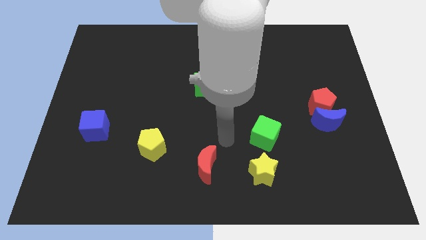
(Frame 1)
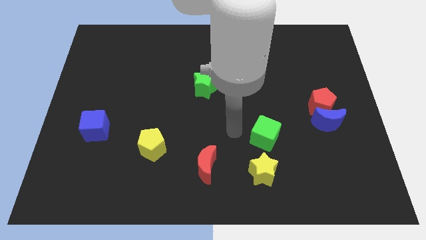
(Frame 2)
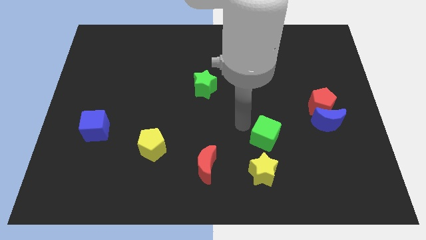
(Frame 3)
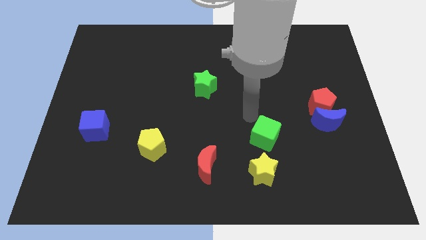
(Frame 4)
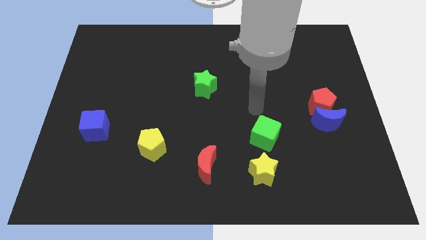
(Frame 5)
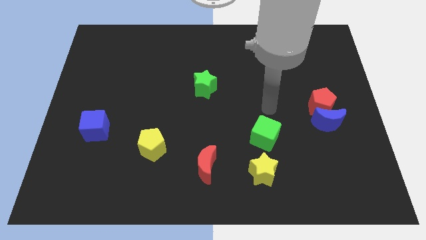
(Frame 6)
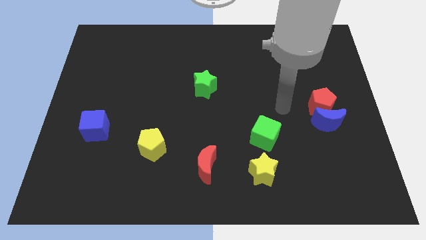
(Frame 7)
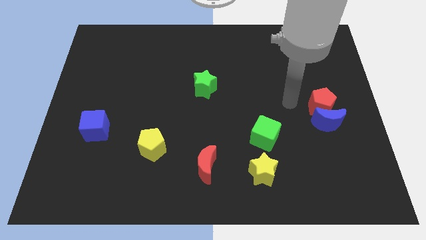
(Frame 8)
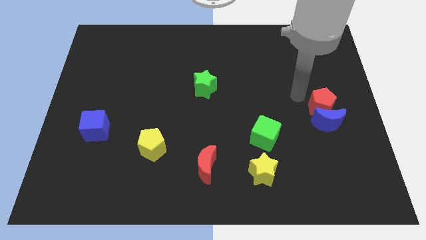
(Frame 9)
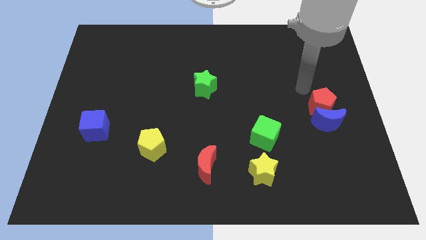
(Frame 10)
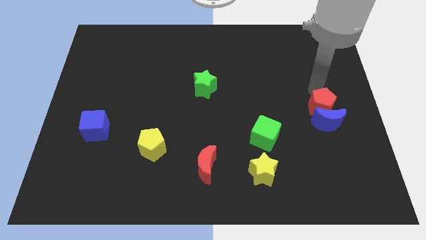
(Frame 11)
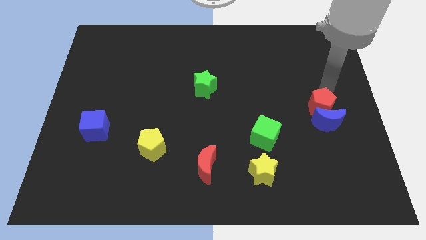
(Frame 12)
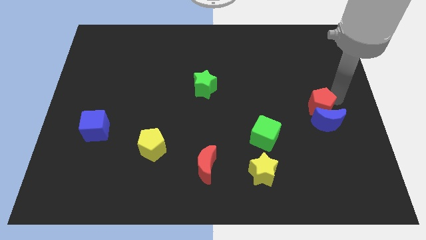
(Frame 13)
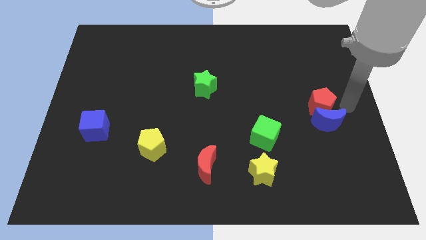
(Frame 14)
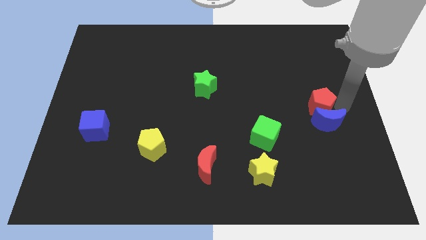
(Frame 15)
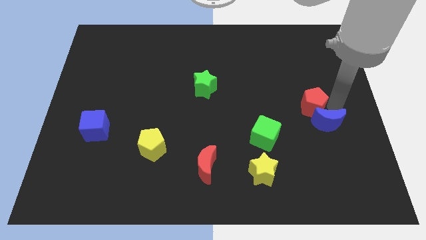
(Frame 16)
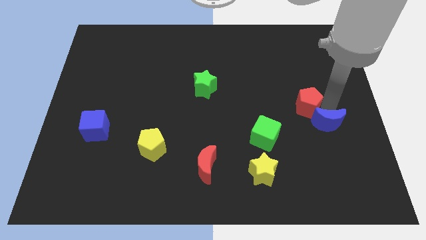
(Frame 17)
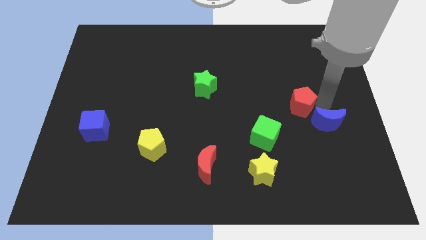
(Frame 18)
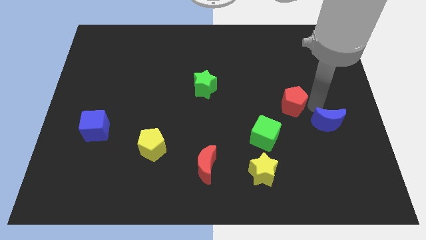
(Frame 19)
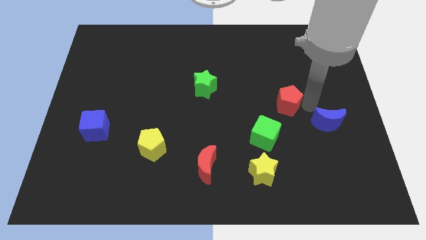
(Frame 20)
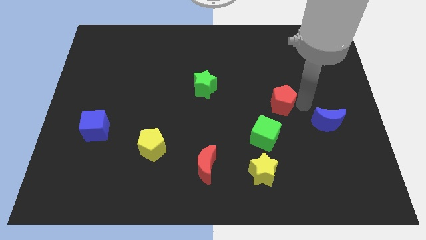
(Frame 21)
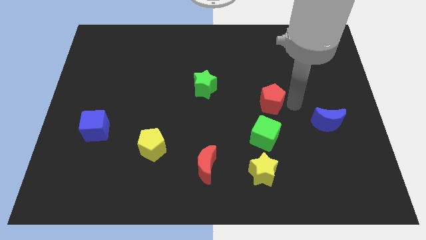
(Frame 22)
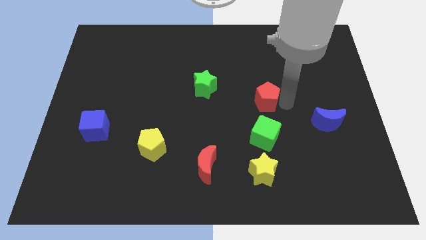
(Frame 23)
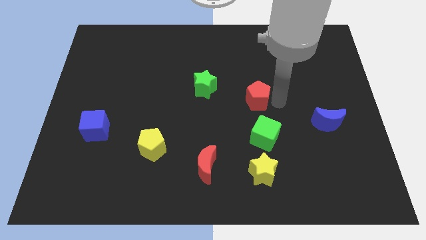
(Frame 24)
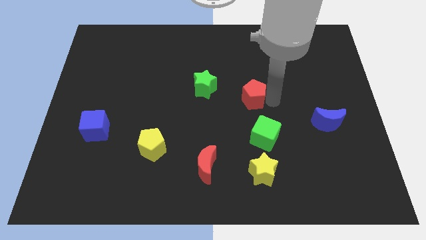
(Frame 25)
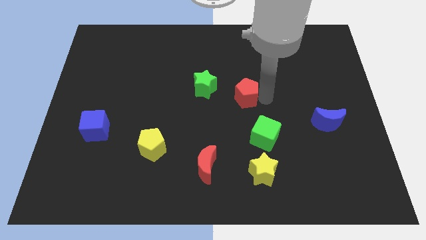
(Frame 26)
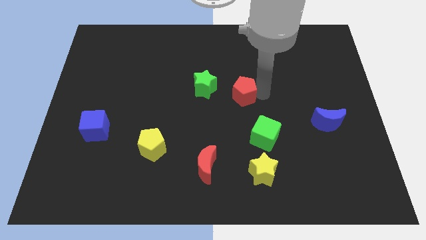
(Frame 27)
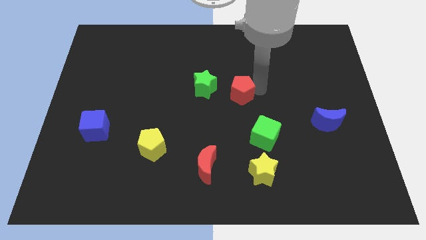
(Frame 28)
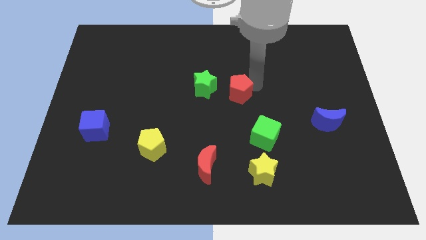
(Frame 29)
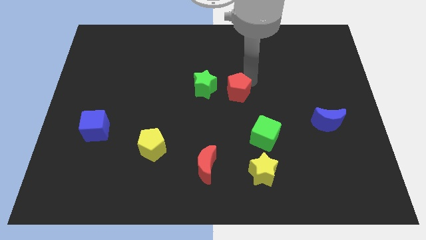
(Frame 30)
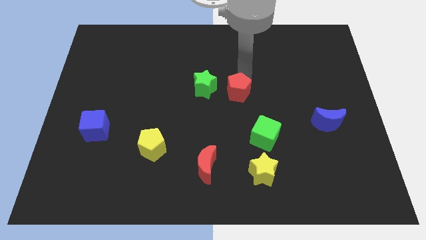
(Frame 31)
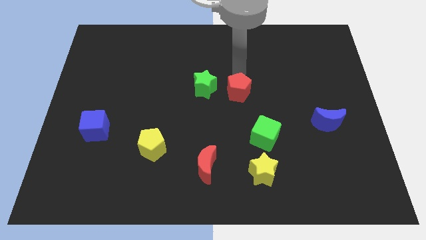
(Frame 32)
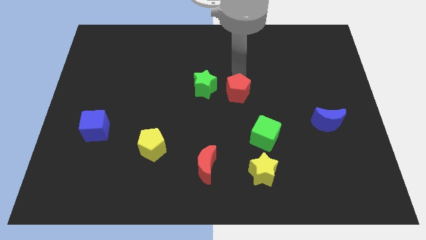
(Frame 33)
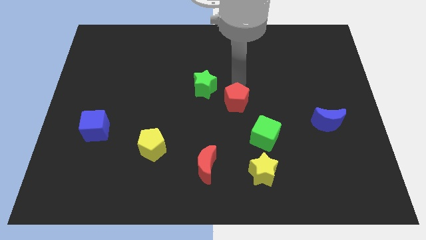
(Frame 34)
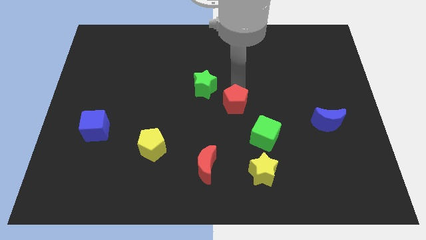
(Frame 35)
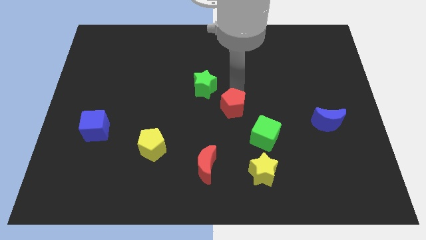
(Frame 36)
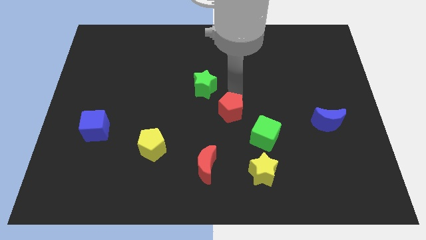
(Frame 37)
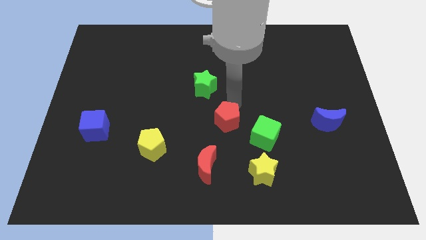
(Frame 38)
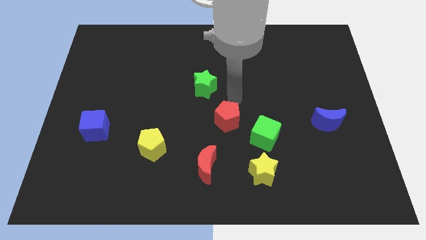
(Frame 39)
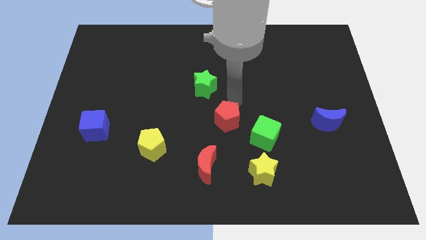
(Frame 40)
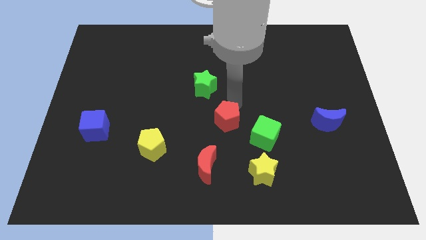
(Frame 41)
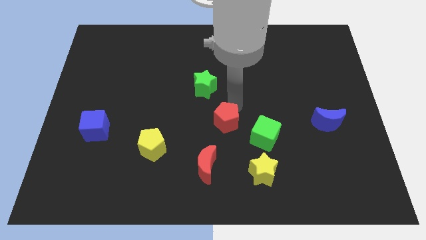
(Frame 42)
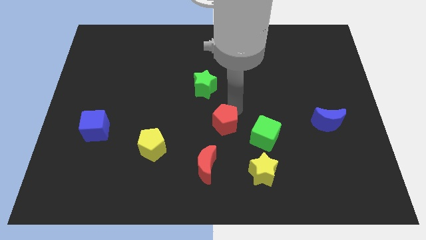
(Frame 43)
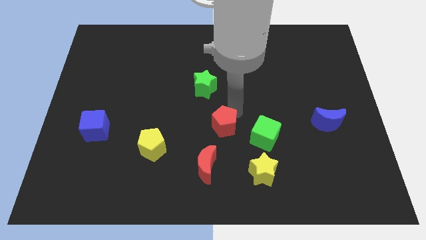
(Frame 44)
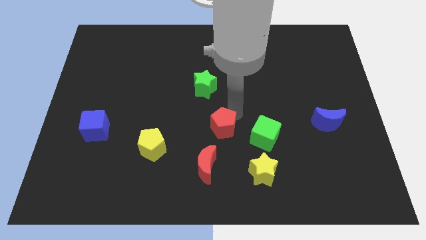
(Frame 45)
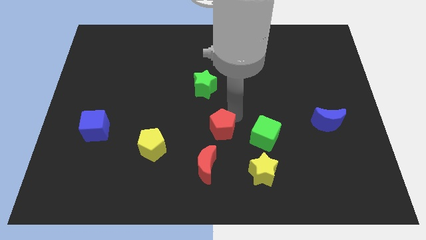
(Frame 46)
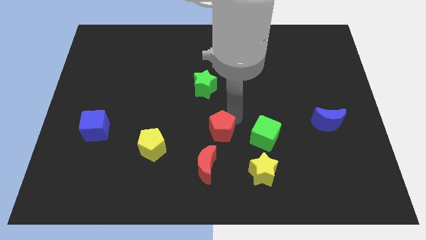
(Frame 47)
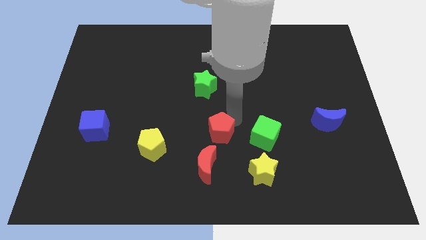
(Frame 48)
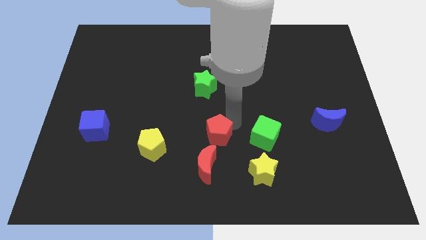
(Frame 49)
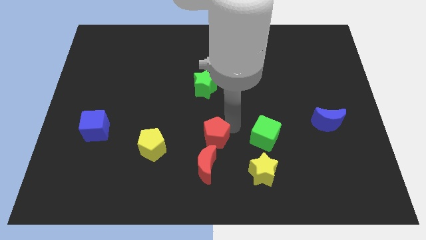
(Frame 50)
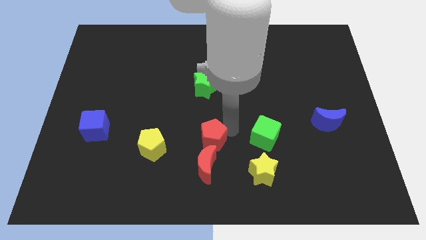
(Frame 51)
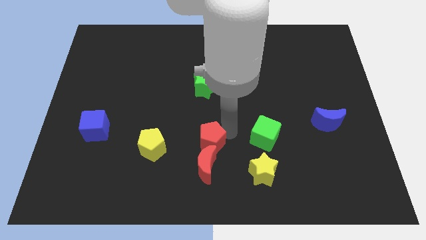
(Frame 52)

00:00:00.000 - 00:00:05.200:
push the red pentagon close to the red moon

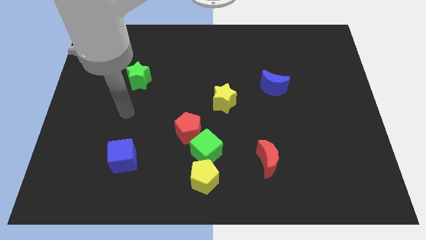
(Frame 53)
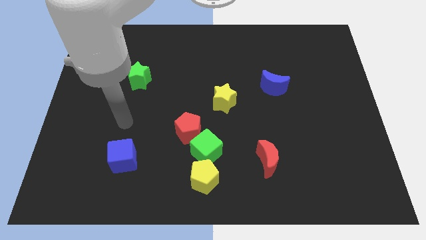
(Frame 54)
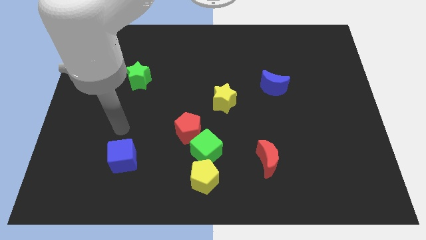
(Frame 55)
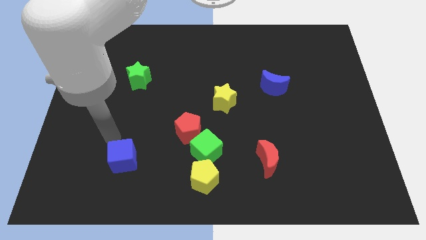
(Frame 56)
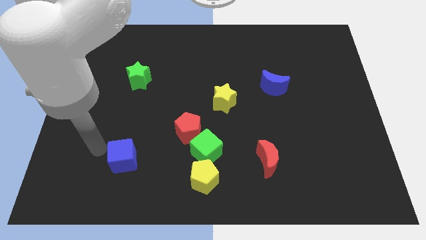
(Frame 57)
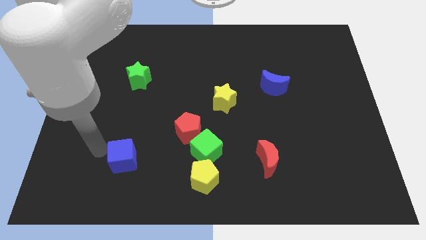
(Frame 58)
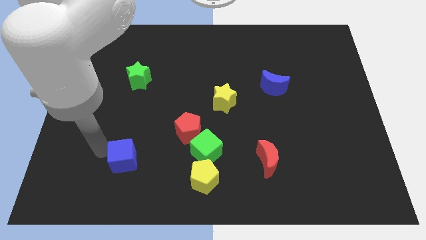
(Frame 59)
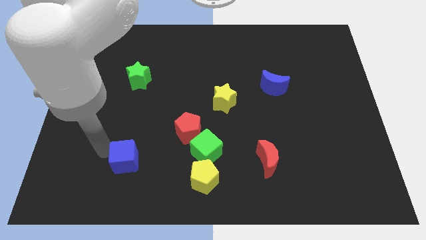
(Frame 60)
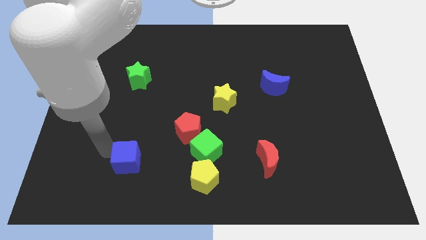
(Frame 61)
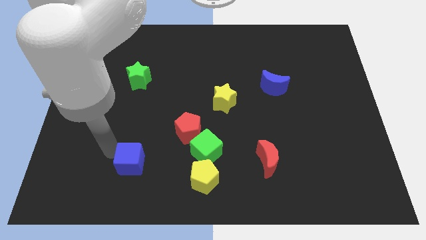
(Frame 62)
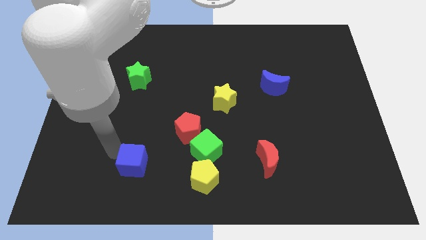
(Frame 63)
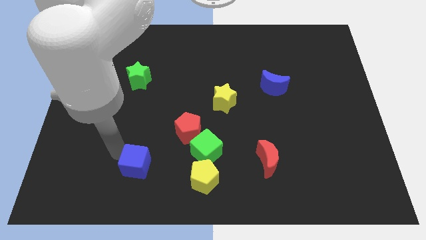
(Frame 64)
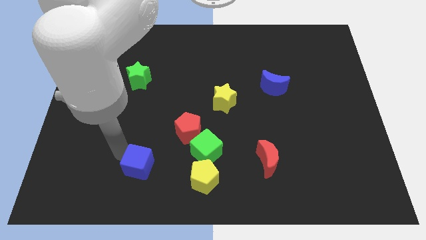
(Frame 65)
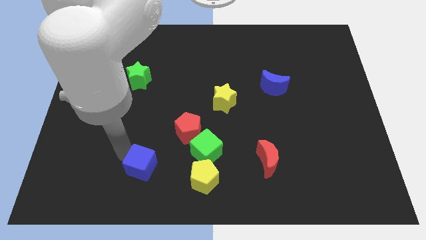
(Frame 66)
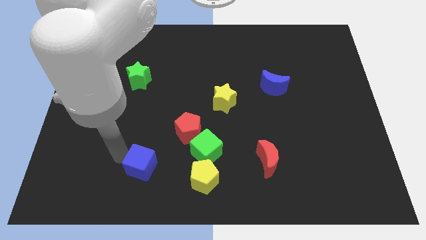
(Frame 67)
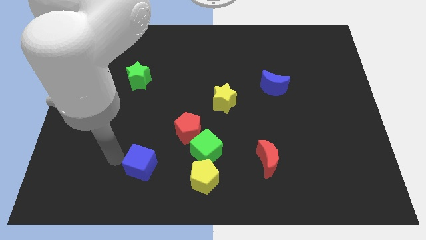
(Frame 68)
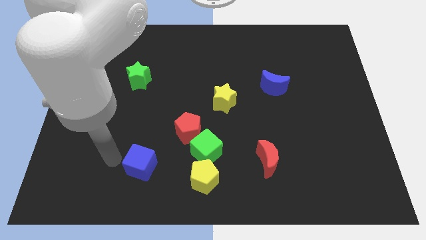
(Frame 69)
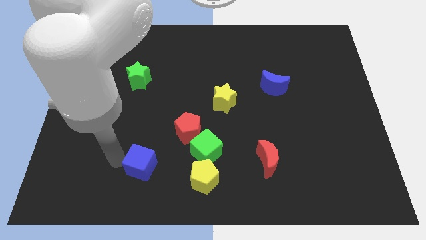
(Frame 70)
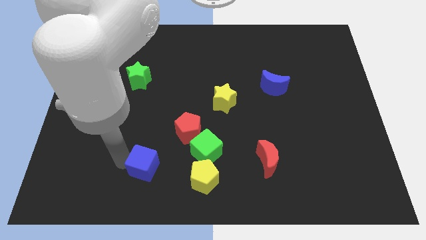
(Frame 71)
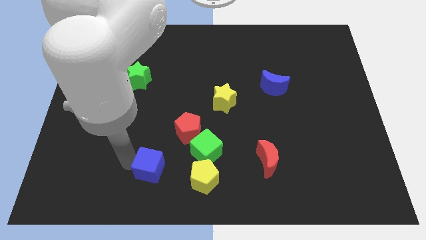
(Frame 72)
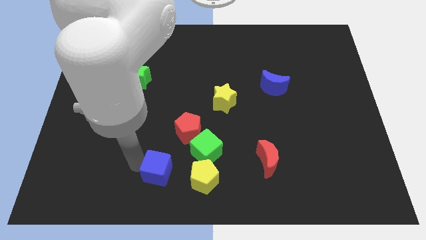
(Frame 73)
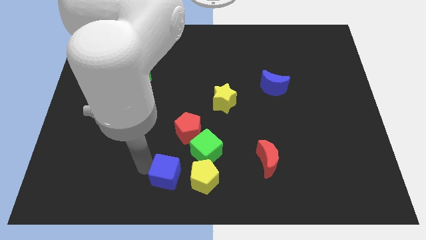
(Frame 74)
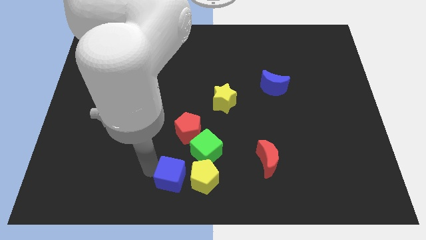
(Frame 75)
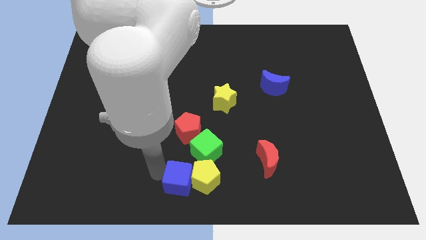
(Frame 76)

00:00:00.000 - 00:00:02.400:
move the blue cube towards the yellow pentagon

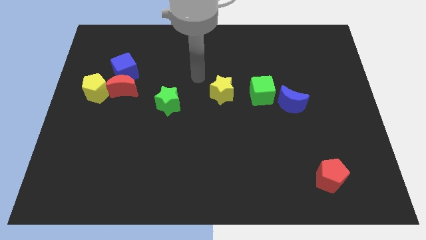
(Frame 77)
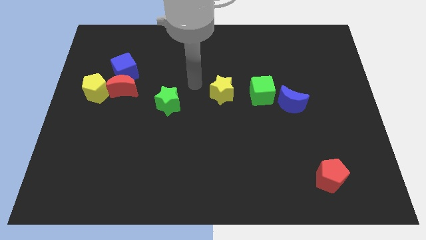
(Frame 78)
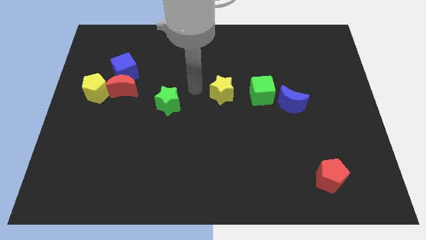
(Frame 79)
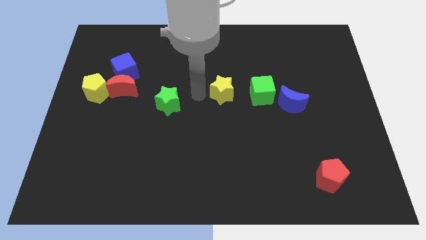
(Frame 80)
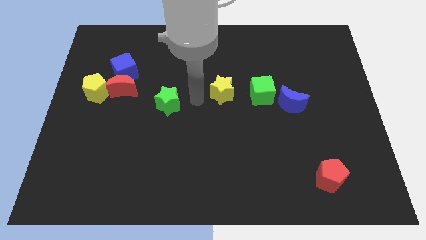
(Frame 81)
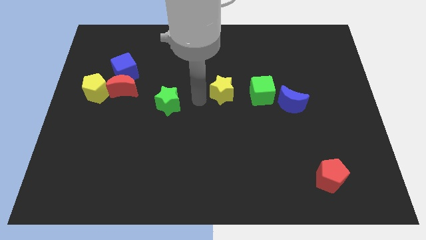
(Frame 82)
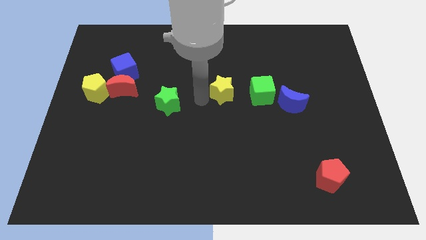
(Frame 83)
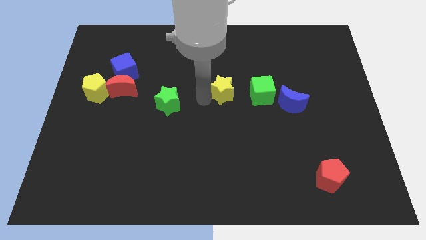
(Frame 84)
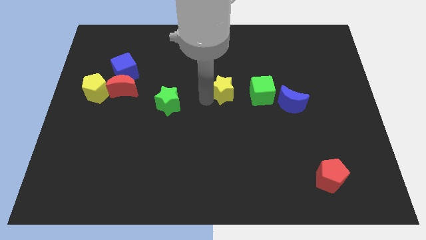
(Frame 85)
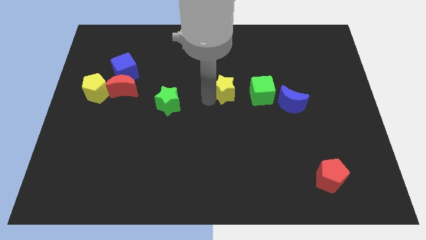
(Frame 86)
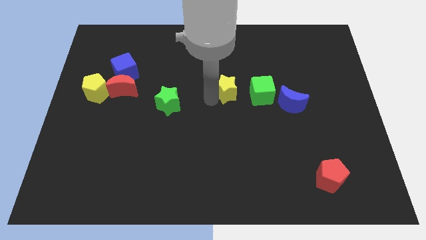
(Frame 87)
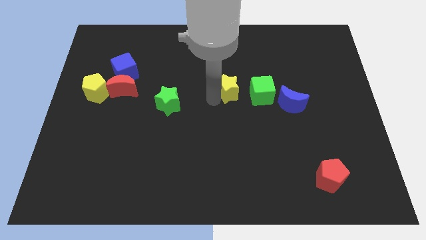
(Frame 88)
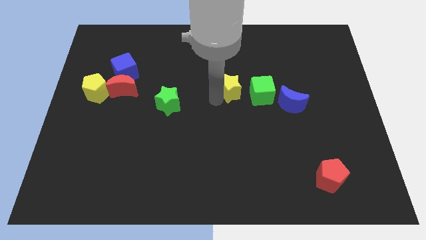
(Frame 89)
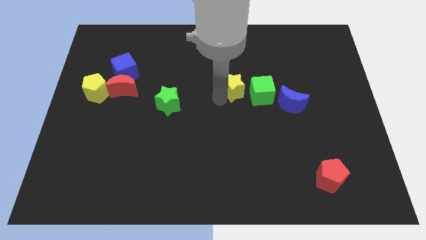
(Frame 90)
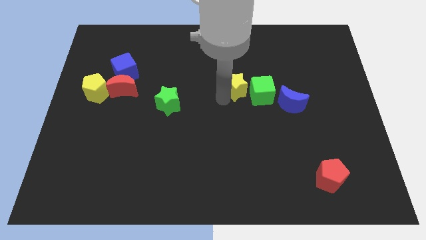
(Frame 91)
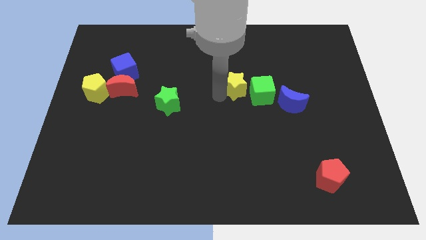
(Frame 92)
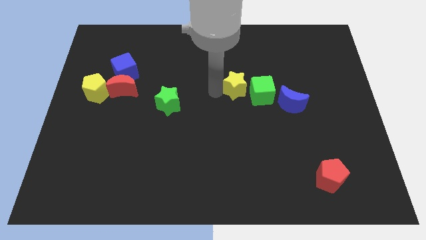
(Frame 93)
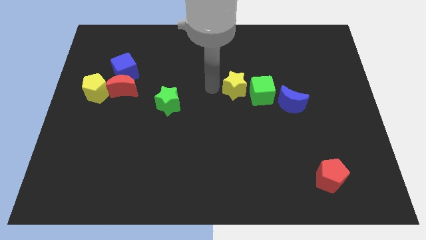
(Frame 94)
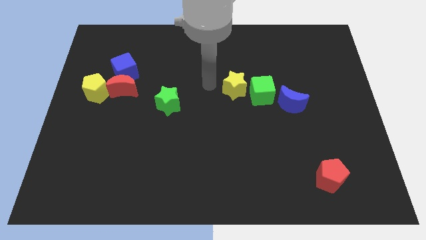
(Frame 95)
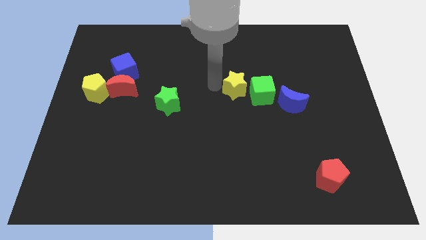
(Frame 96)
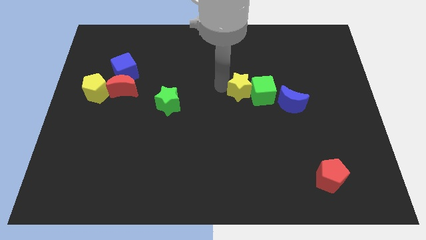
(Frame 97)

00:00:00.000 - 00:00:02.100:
slide the yellow star to the green cube
